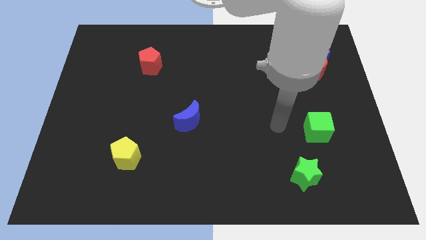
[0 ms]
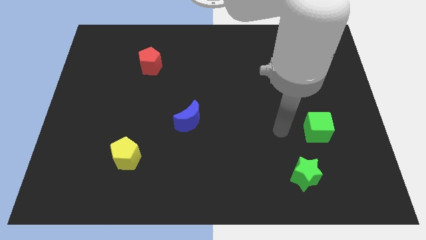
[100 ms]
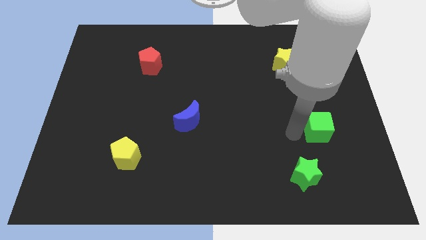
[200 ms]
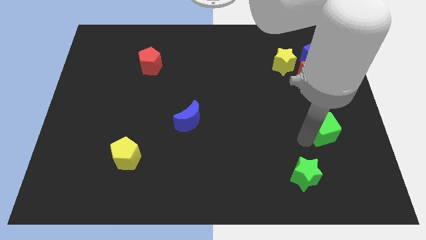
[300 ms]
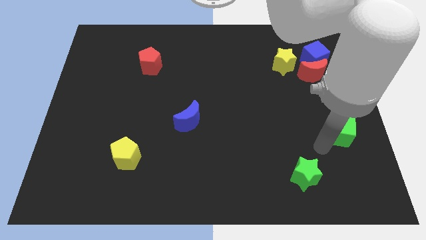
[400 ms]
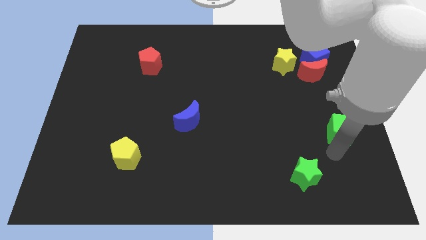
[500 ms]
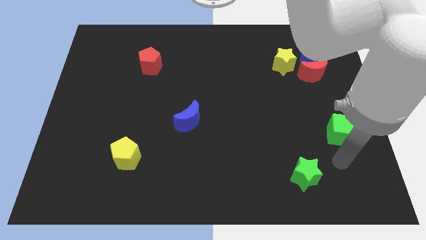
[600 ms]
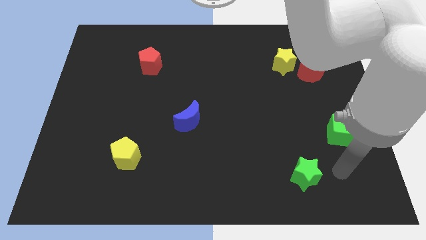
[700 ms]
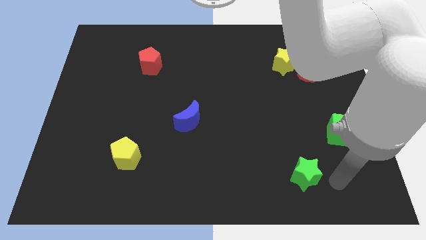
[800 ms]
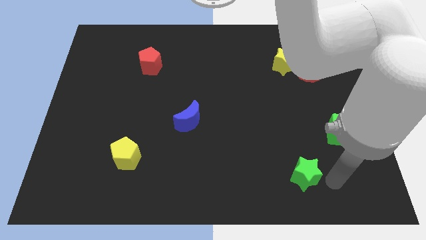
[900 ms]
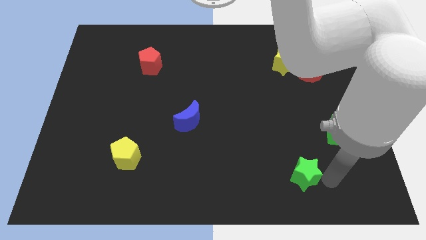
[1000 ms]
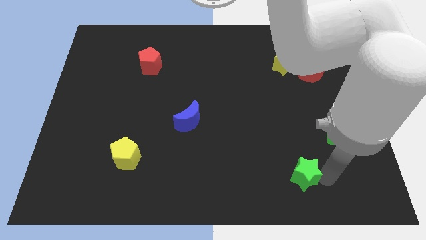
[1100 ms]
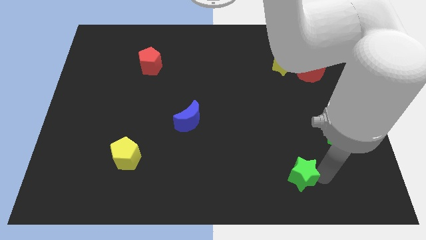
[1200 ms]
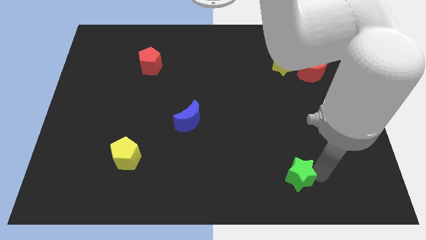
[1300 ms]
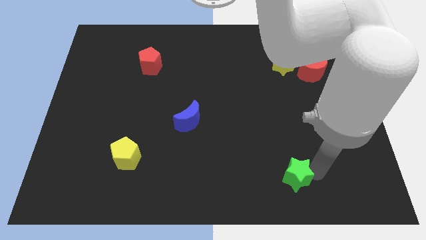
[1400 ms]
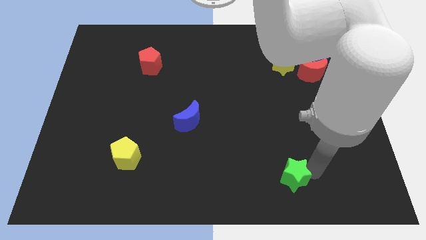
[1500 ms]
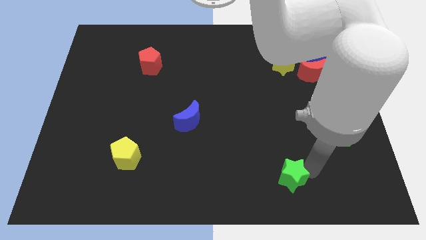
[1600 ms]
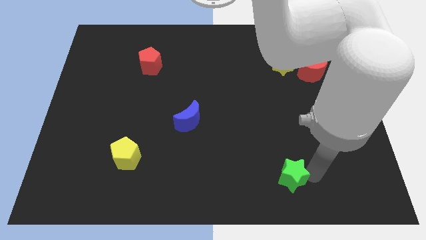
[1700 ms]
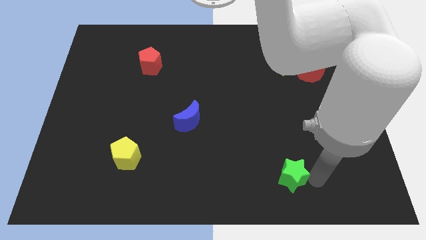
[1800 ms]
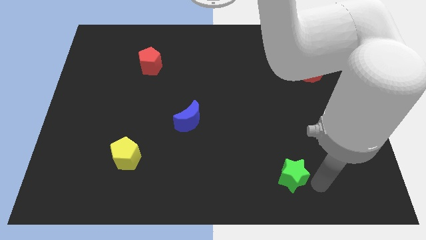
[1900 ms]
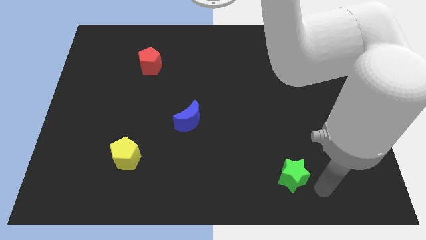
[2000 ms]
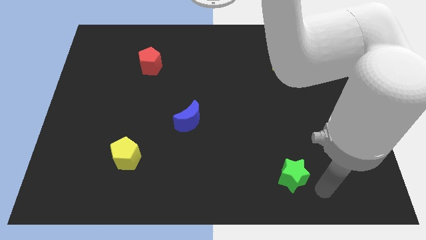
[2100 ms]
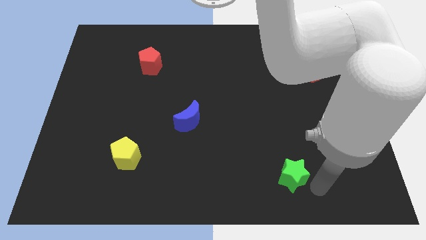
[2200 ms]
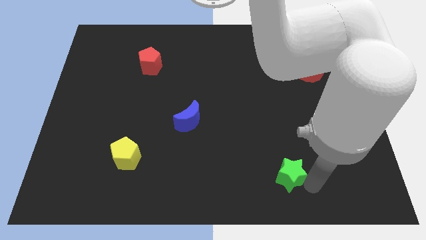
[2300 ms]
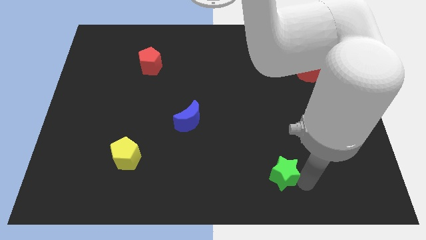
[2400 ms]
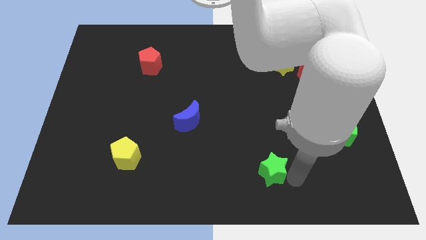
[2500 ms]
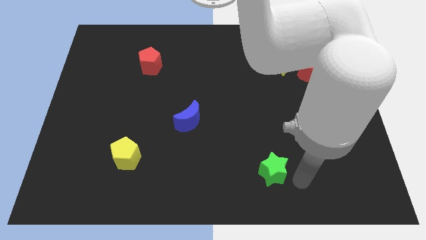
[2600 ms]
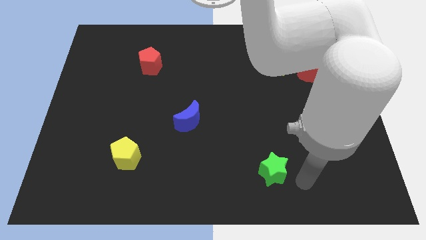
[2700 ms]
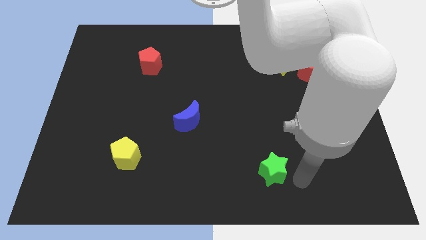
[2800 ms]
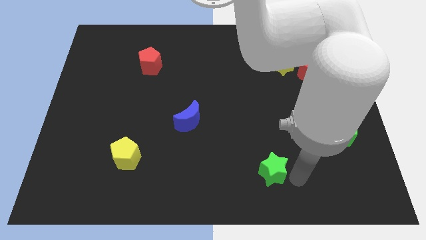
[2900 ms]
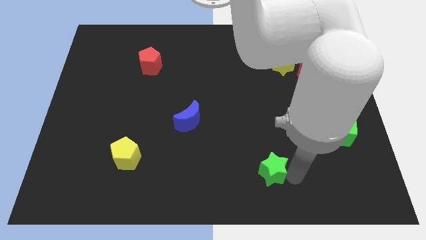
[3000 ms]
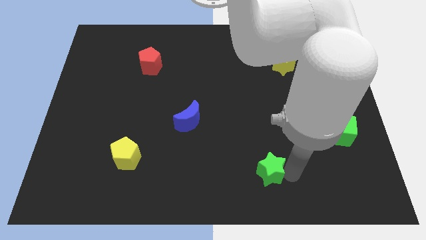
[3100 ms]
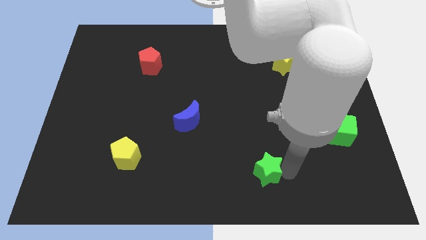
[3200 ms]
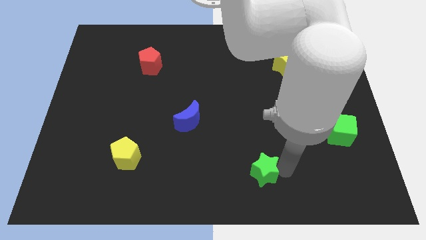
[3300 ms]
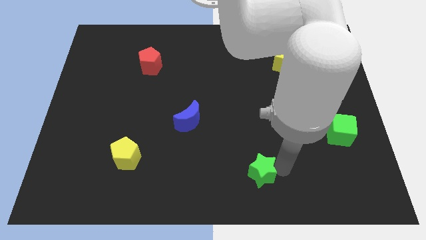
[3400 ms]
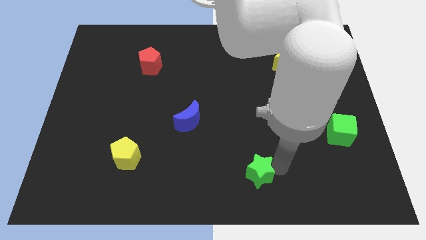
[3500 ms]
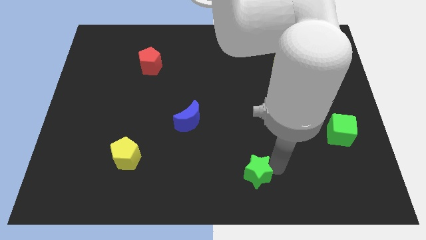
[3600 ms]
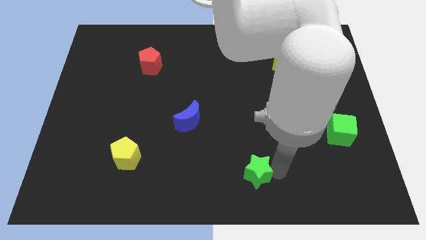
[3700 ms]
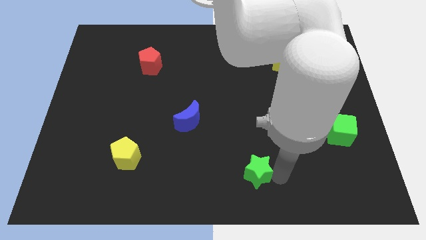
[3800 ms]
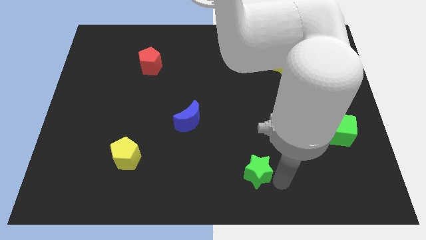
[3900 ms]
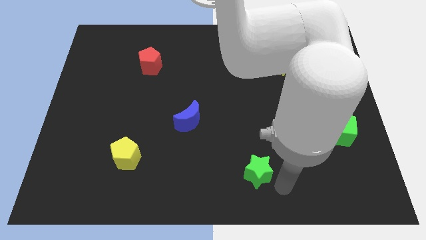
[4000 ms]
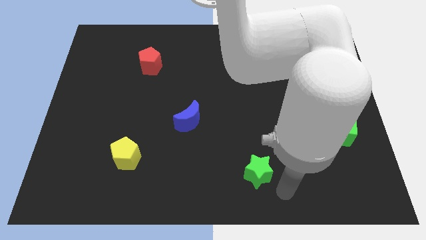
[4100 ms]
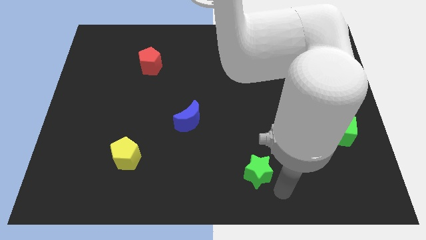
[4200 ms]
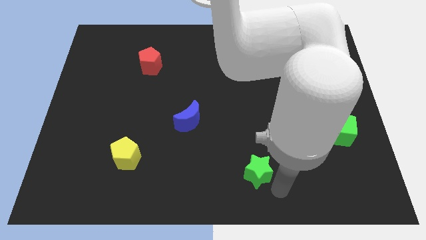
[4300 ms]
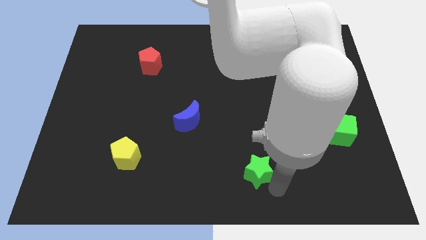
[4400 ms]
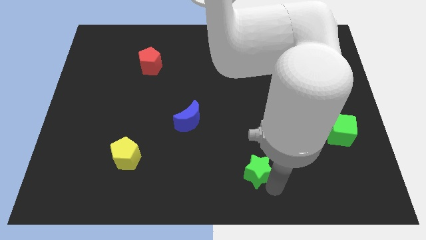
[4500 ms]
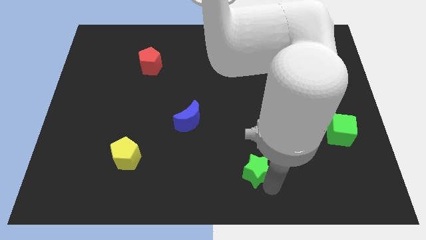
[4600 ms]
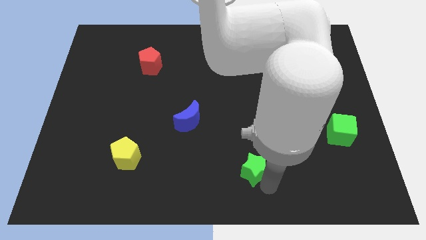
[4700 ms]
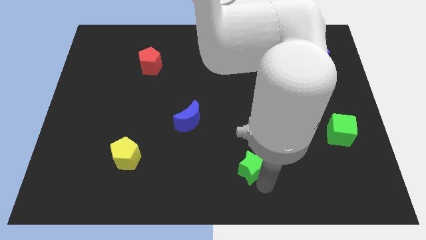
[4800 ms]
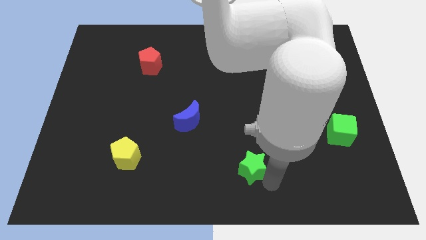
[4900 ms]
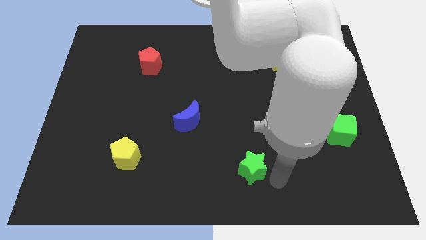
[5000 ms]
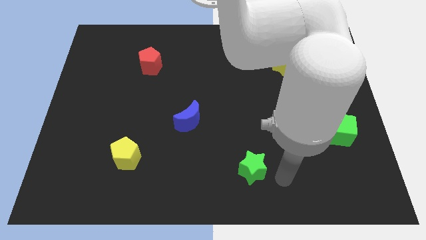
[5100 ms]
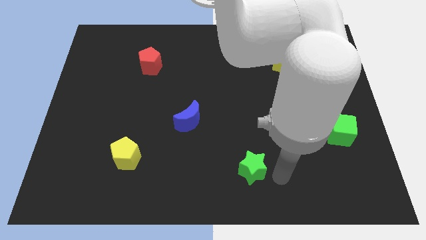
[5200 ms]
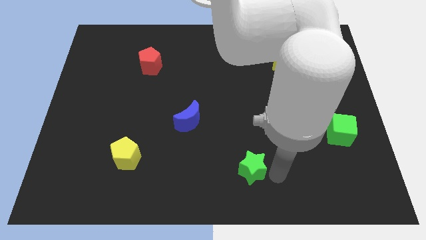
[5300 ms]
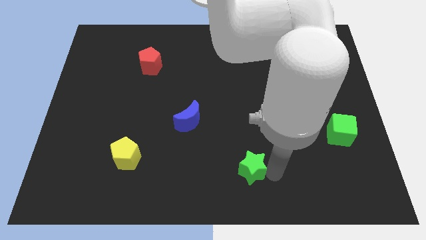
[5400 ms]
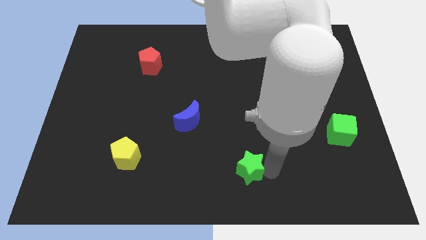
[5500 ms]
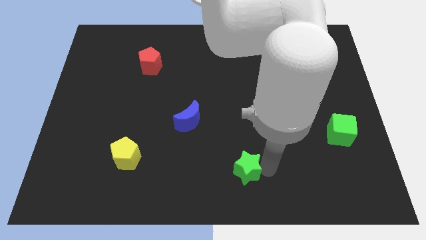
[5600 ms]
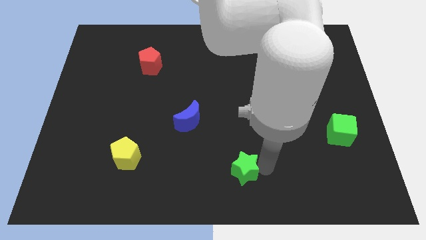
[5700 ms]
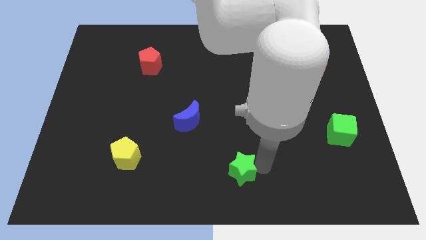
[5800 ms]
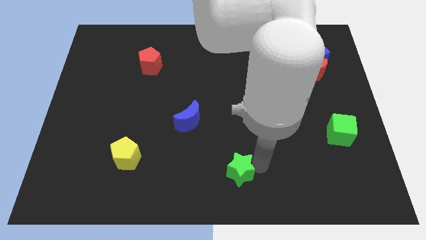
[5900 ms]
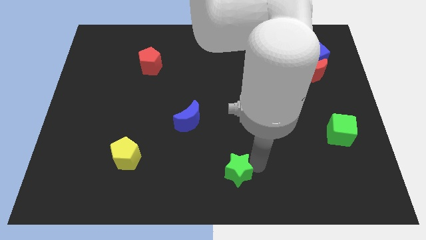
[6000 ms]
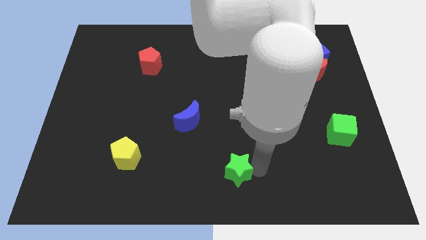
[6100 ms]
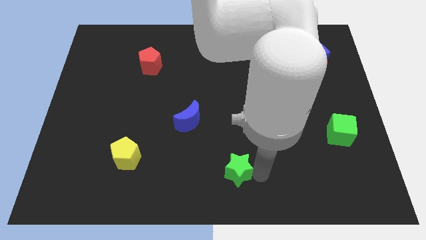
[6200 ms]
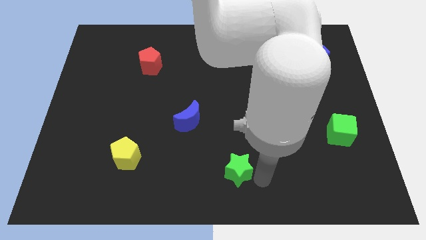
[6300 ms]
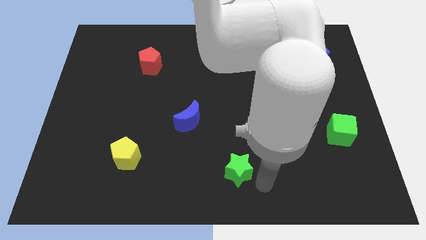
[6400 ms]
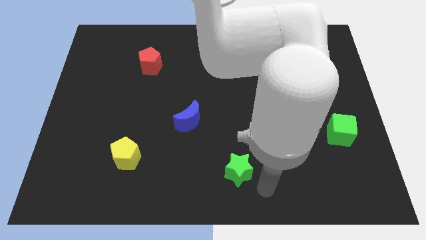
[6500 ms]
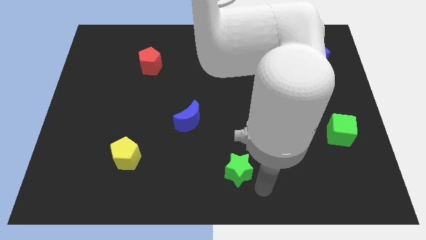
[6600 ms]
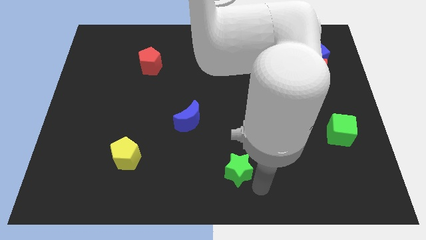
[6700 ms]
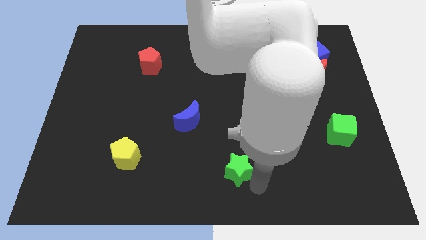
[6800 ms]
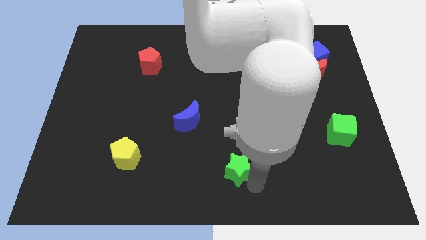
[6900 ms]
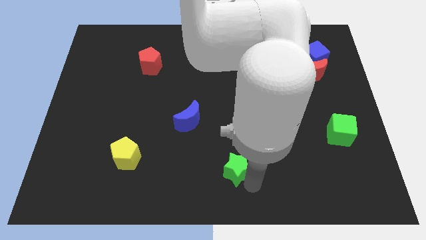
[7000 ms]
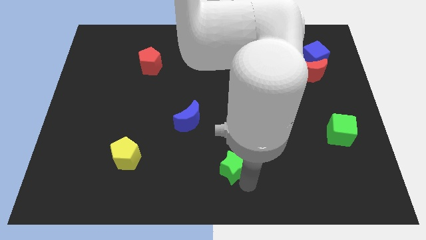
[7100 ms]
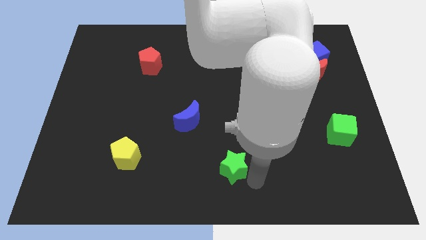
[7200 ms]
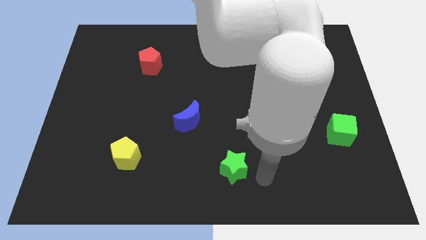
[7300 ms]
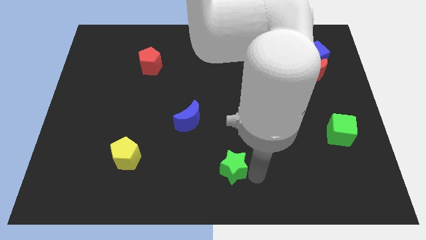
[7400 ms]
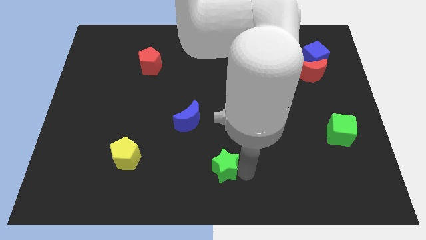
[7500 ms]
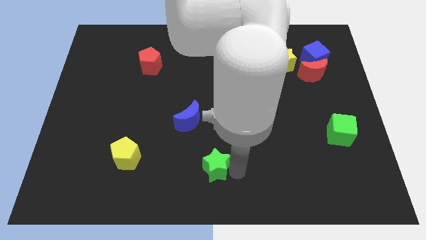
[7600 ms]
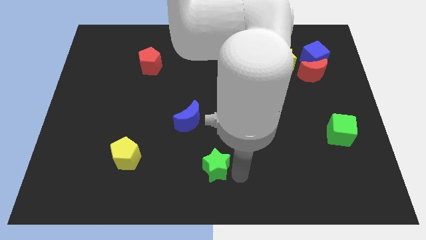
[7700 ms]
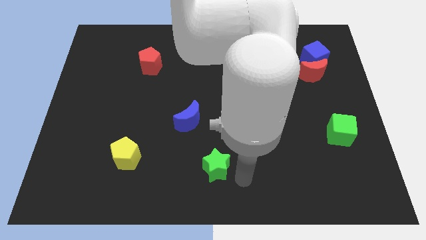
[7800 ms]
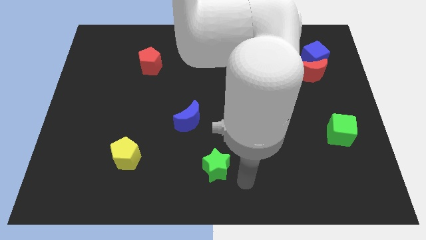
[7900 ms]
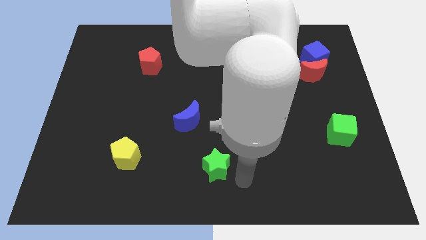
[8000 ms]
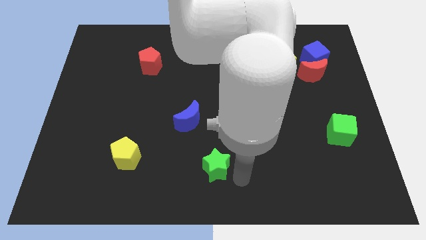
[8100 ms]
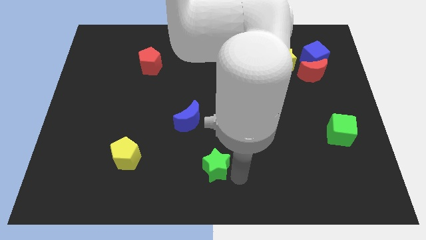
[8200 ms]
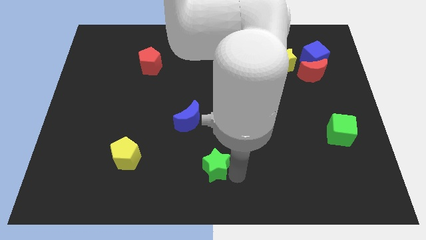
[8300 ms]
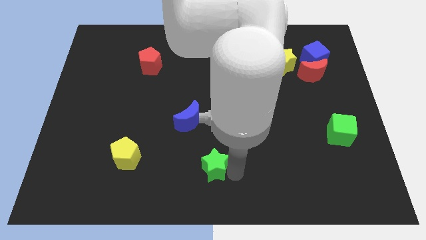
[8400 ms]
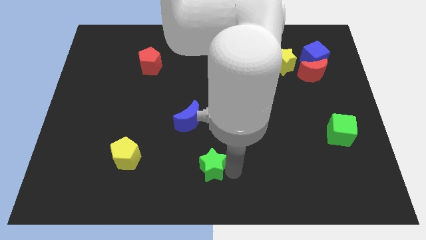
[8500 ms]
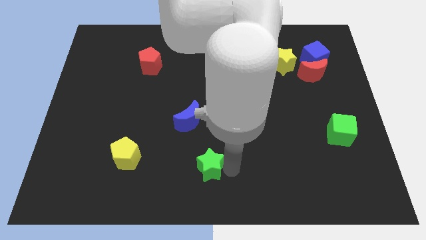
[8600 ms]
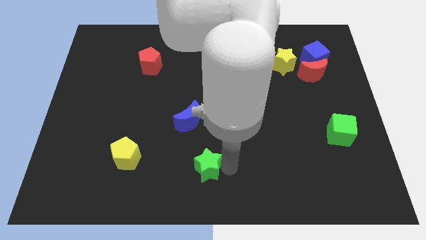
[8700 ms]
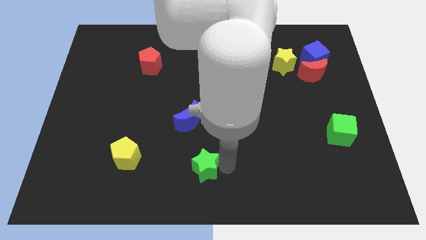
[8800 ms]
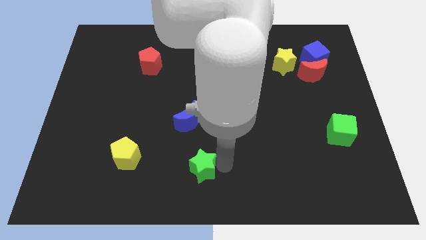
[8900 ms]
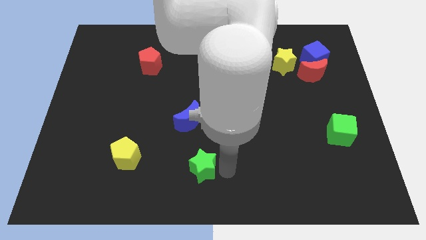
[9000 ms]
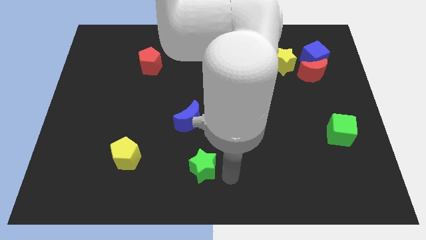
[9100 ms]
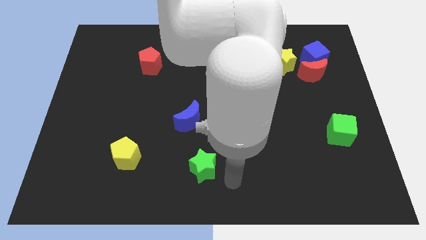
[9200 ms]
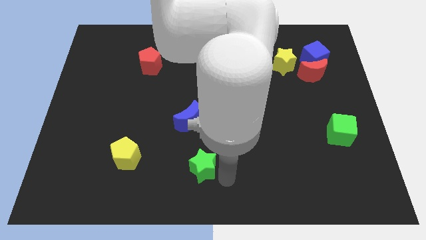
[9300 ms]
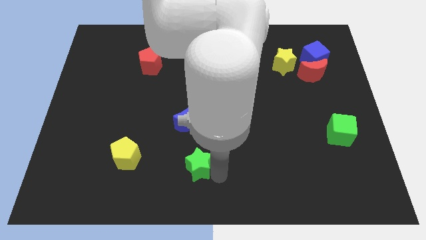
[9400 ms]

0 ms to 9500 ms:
slide the green star just right of the yellow pentagon
